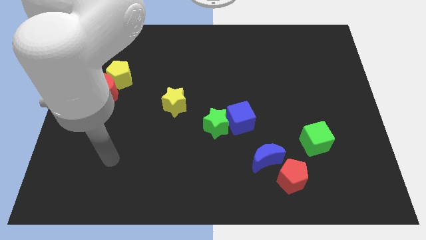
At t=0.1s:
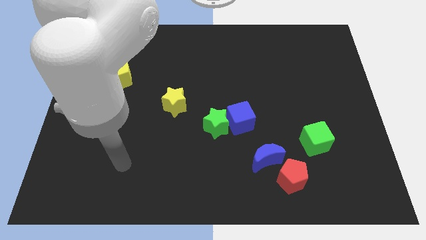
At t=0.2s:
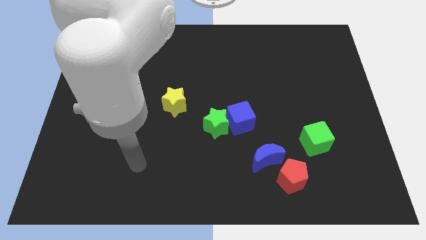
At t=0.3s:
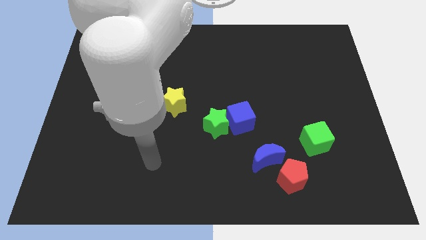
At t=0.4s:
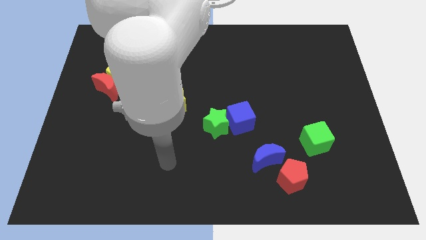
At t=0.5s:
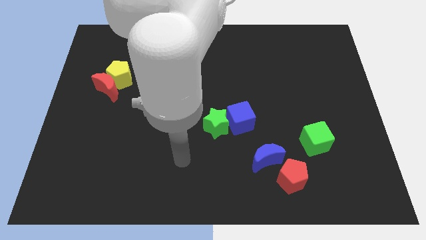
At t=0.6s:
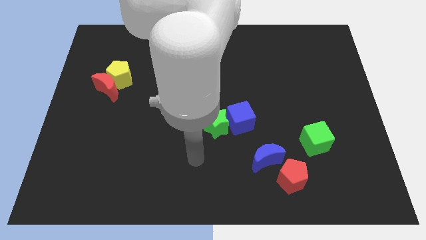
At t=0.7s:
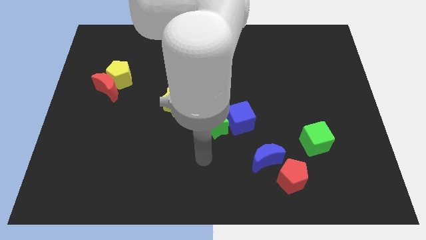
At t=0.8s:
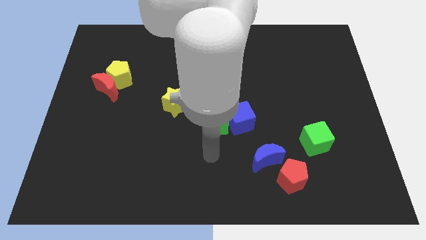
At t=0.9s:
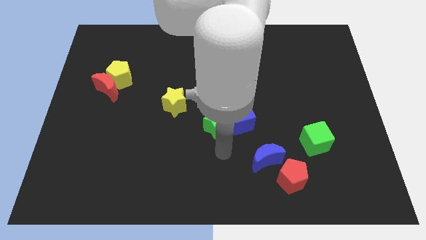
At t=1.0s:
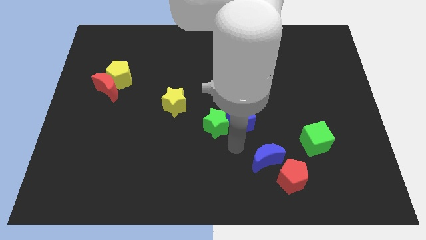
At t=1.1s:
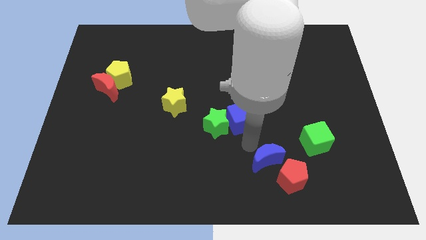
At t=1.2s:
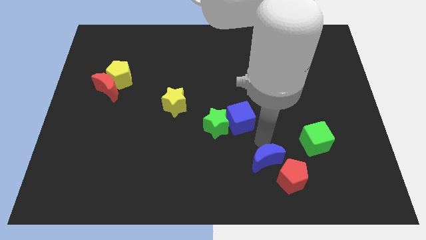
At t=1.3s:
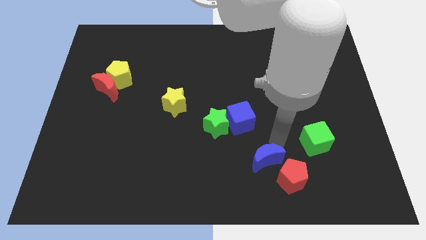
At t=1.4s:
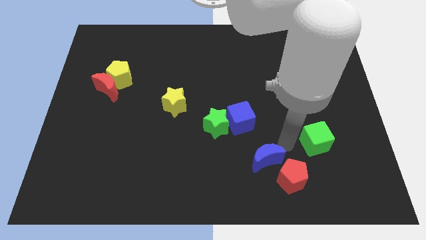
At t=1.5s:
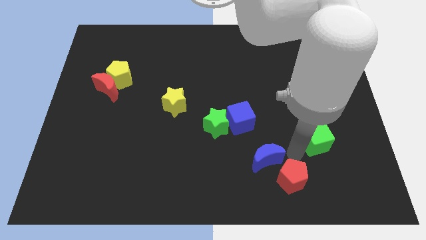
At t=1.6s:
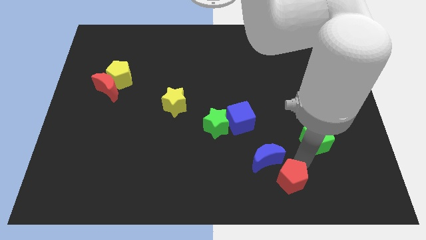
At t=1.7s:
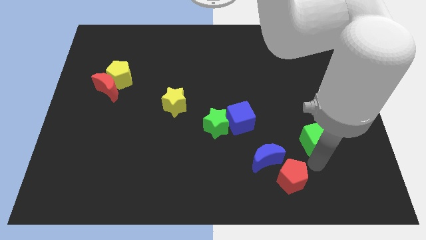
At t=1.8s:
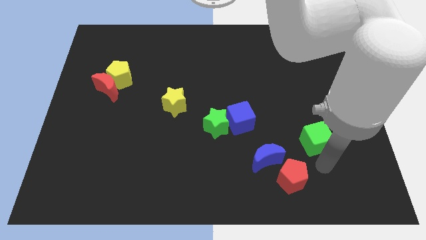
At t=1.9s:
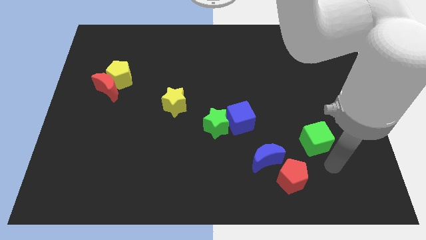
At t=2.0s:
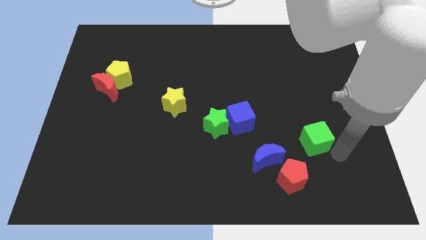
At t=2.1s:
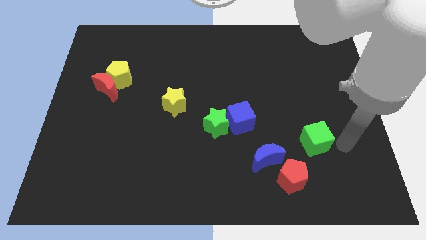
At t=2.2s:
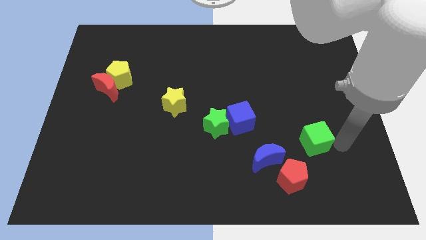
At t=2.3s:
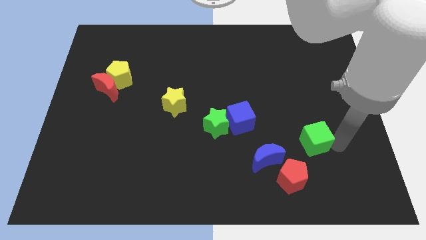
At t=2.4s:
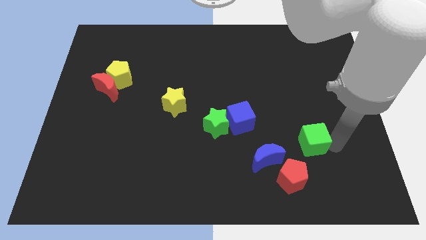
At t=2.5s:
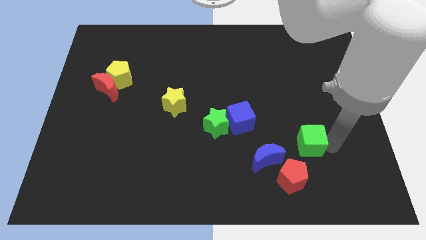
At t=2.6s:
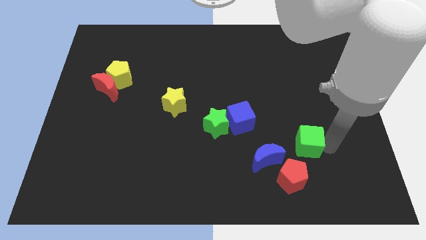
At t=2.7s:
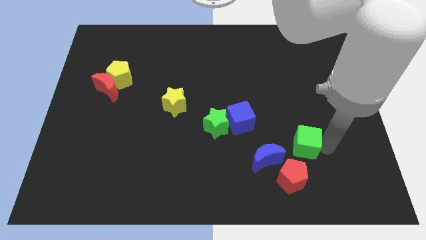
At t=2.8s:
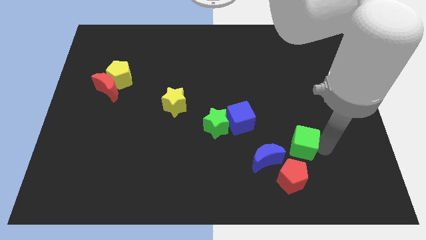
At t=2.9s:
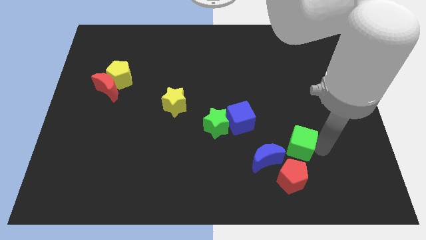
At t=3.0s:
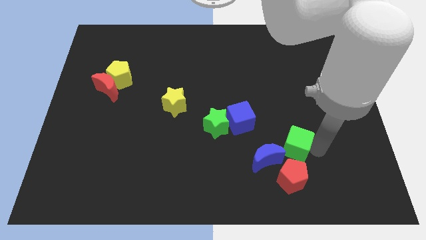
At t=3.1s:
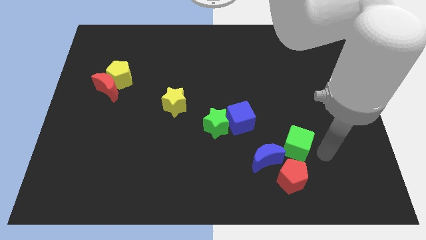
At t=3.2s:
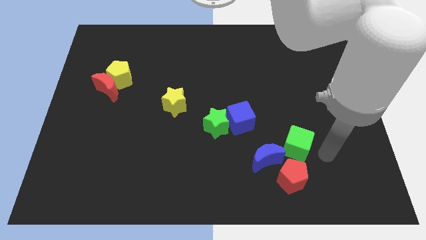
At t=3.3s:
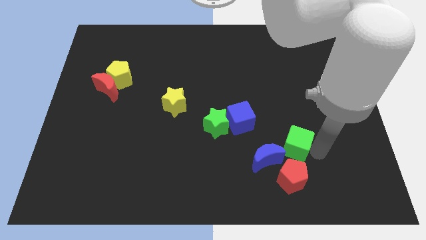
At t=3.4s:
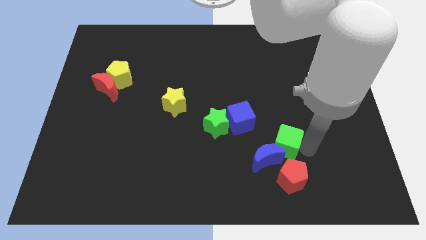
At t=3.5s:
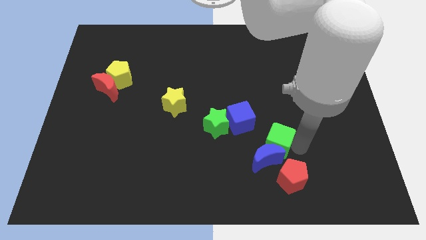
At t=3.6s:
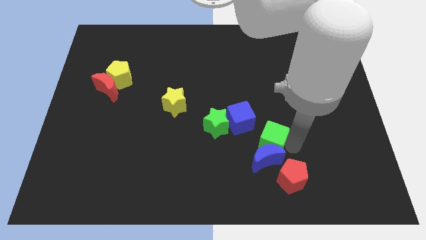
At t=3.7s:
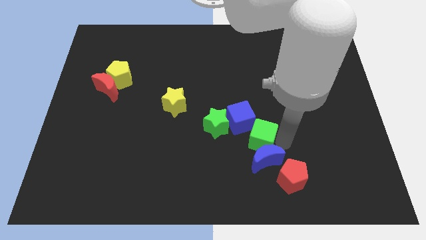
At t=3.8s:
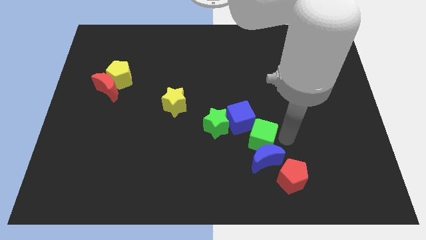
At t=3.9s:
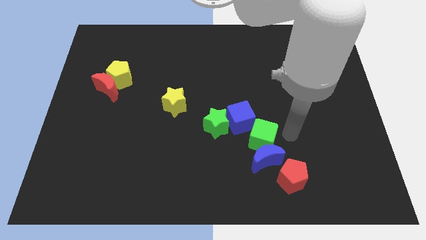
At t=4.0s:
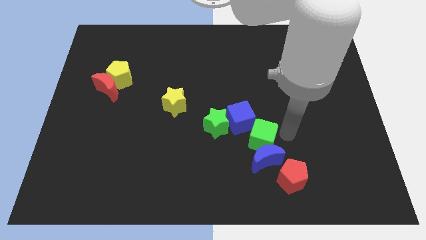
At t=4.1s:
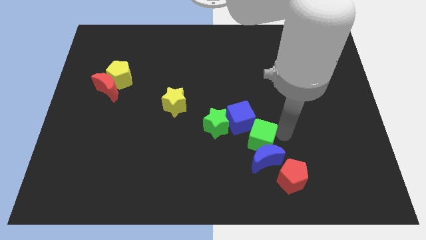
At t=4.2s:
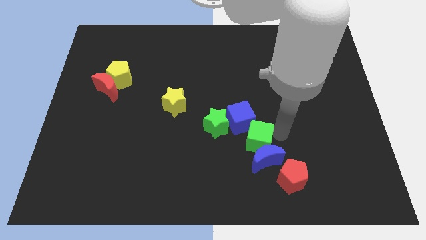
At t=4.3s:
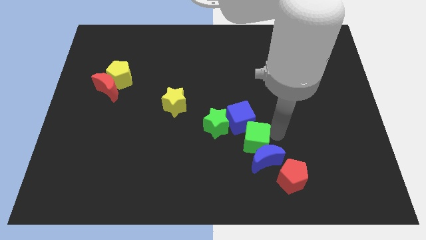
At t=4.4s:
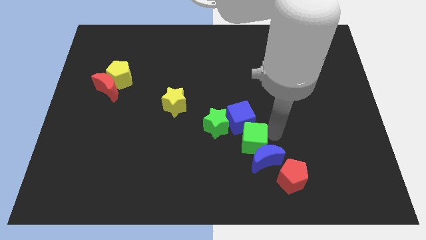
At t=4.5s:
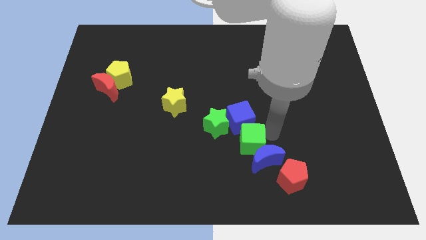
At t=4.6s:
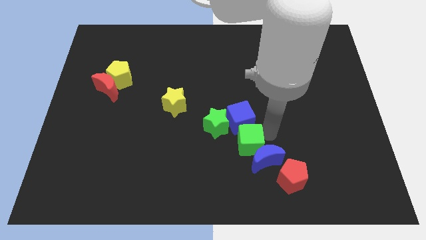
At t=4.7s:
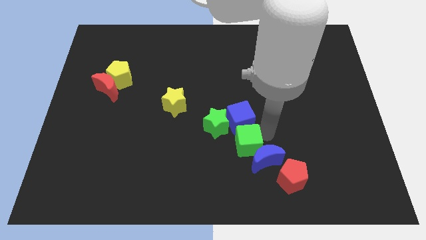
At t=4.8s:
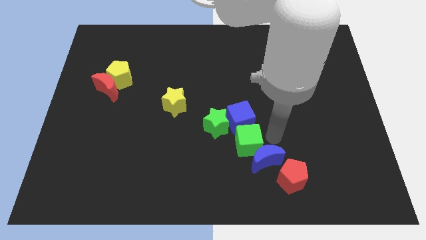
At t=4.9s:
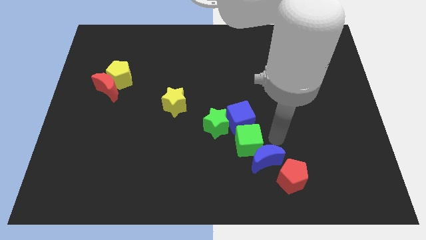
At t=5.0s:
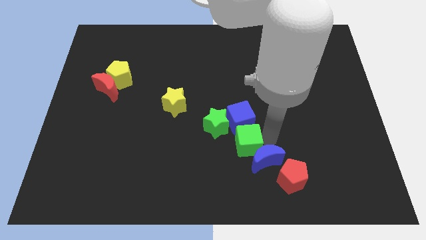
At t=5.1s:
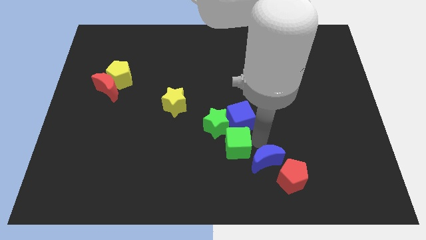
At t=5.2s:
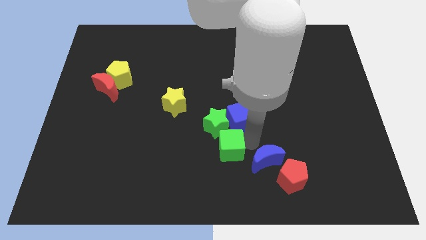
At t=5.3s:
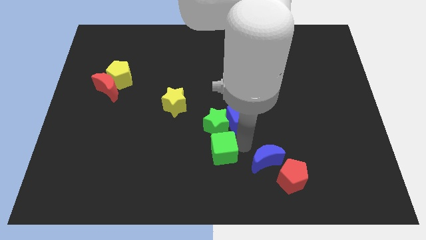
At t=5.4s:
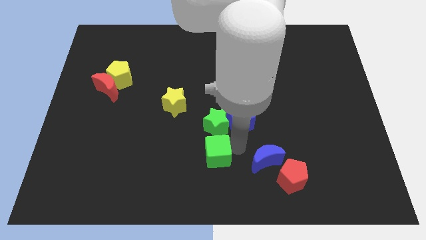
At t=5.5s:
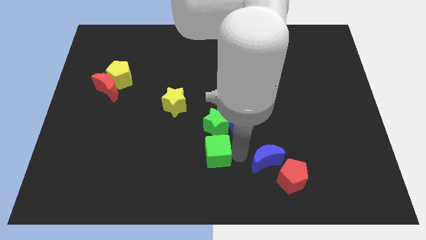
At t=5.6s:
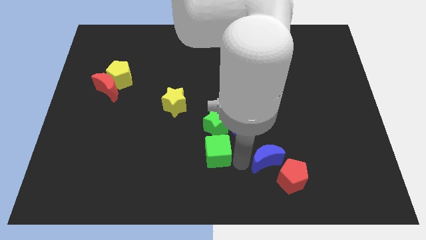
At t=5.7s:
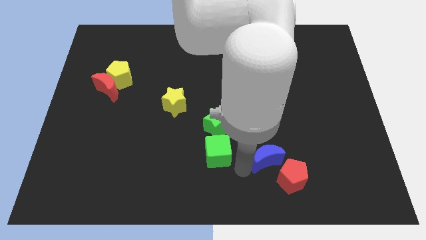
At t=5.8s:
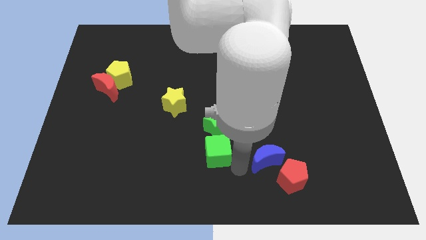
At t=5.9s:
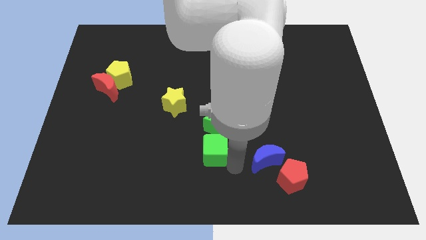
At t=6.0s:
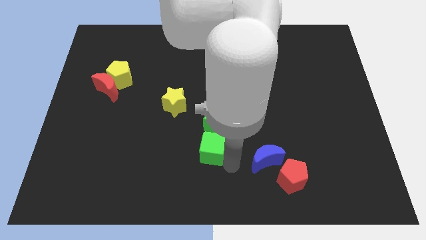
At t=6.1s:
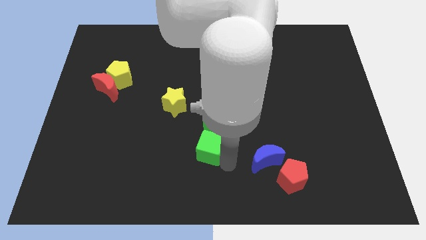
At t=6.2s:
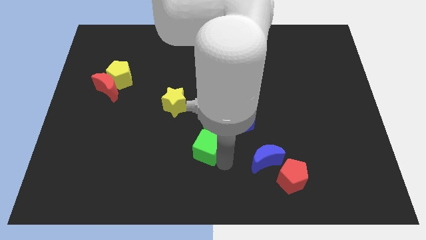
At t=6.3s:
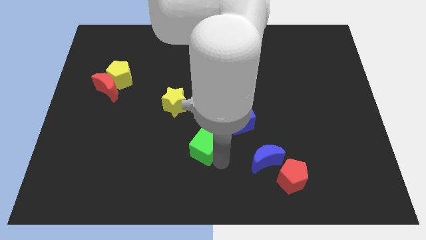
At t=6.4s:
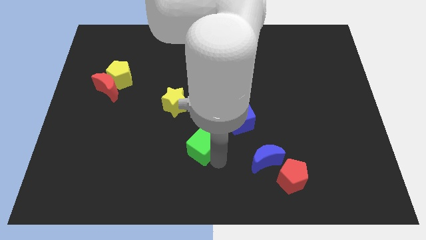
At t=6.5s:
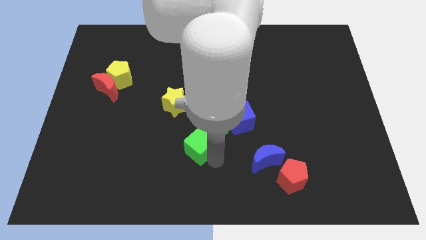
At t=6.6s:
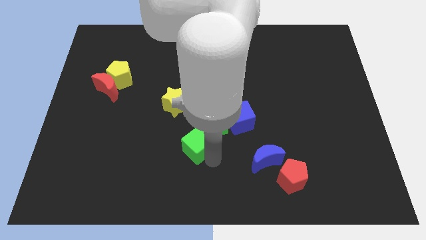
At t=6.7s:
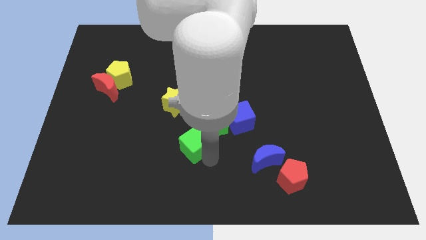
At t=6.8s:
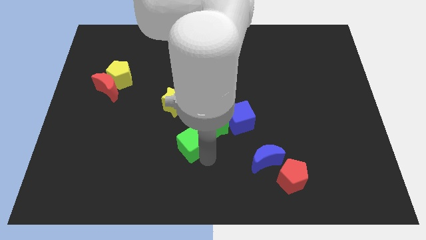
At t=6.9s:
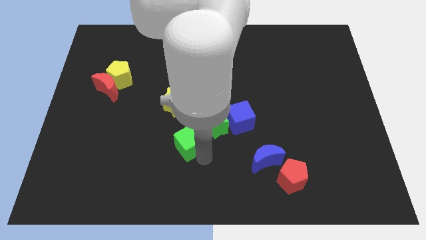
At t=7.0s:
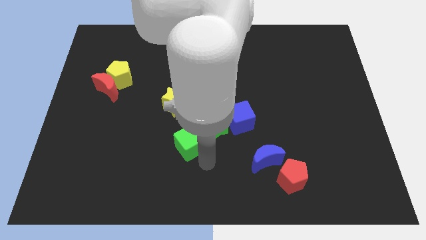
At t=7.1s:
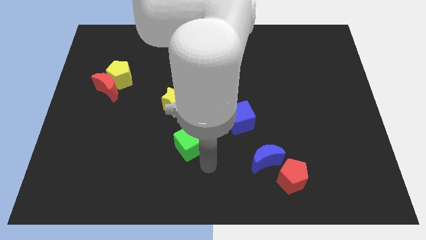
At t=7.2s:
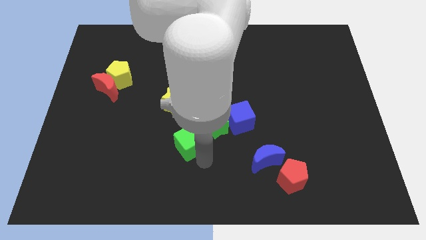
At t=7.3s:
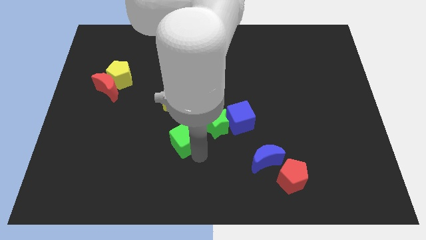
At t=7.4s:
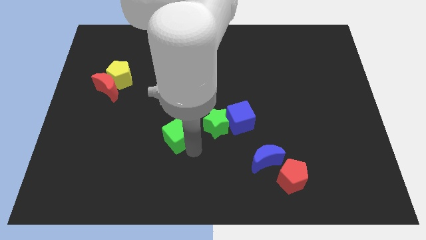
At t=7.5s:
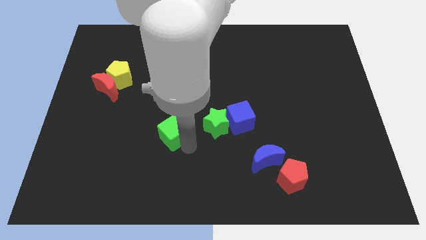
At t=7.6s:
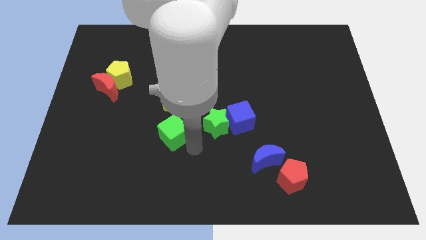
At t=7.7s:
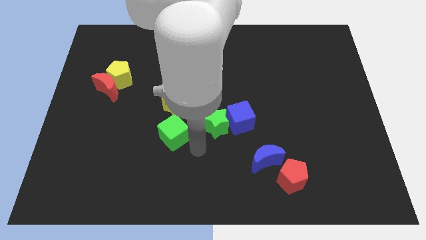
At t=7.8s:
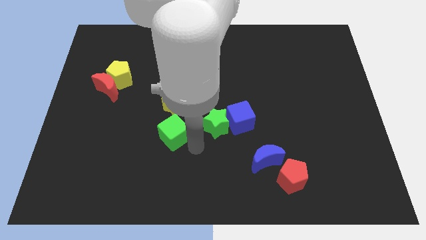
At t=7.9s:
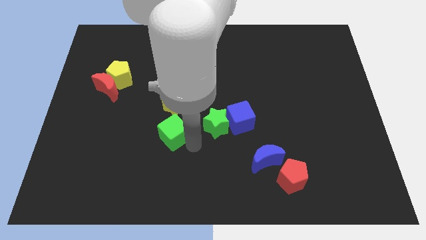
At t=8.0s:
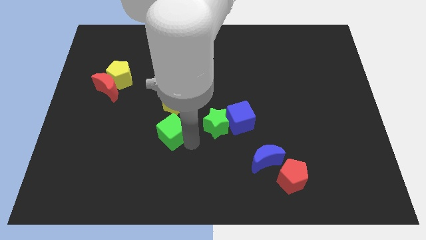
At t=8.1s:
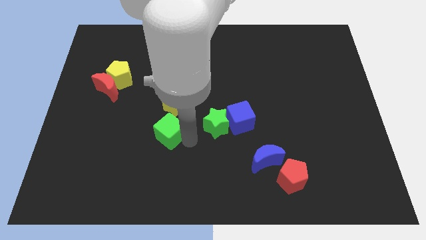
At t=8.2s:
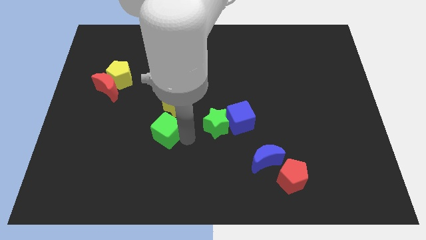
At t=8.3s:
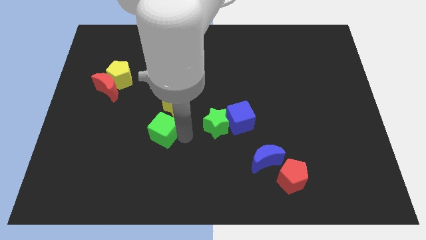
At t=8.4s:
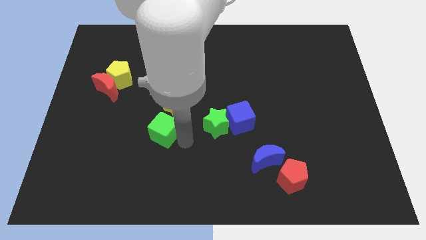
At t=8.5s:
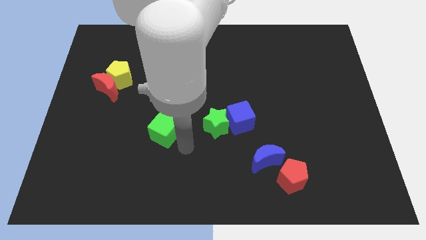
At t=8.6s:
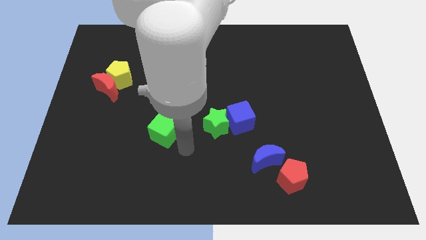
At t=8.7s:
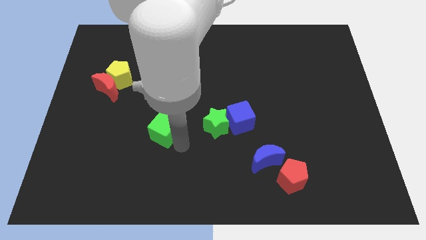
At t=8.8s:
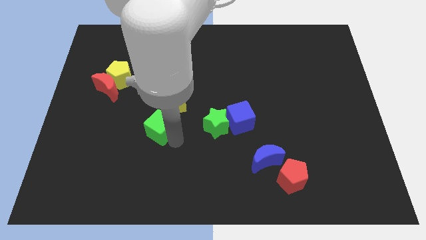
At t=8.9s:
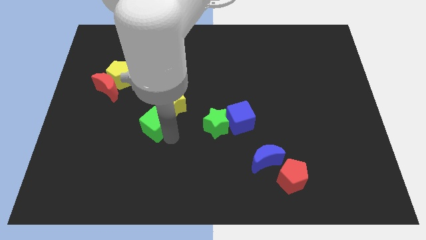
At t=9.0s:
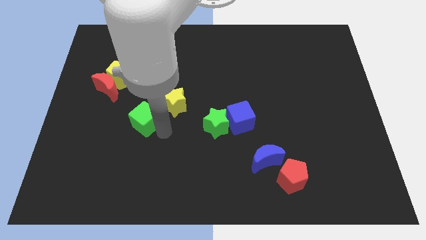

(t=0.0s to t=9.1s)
move the green cube to the left of the yellow star
